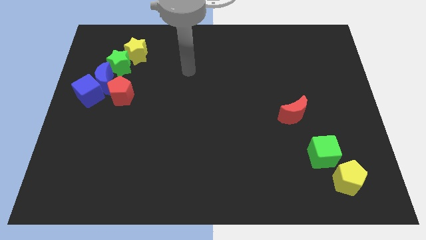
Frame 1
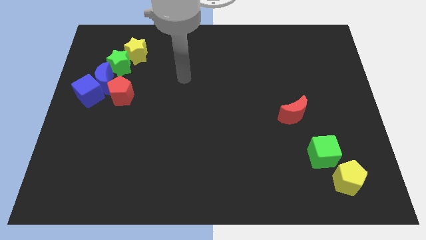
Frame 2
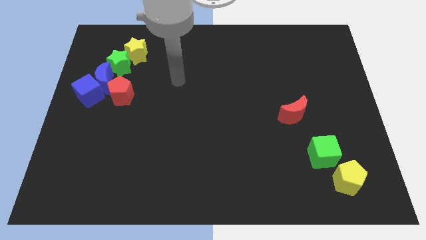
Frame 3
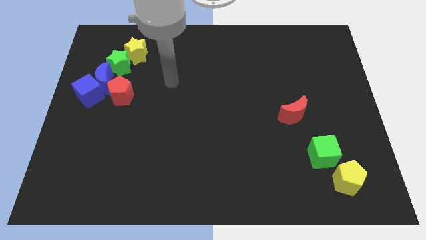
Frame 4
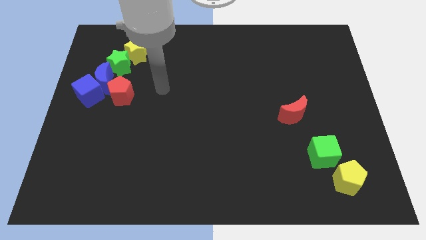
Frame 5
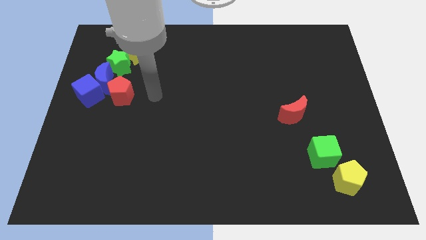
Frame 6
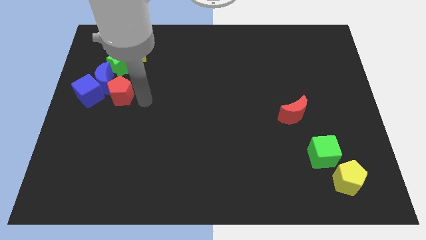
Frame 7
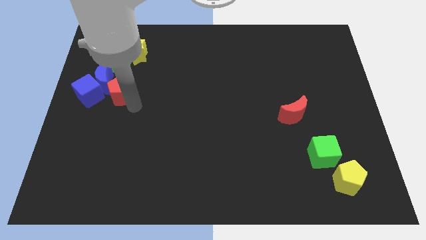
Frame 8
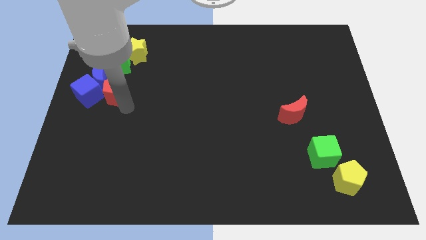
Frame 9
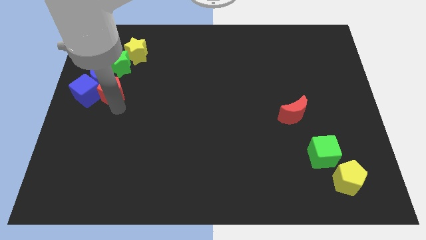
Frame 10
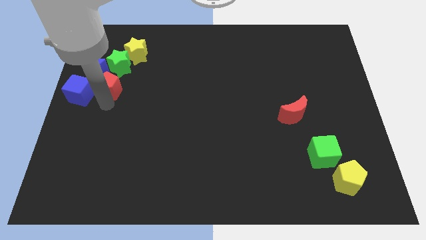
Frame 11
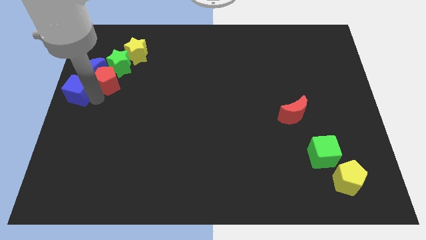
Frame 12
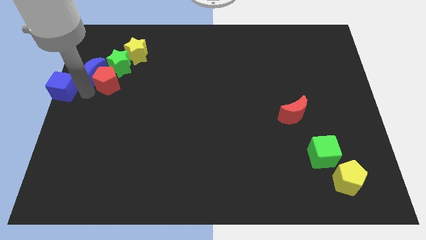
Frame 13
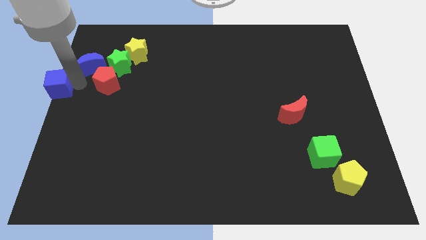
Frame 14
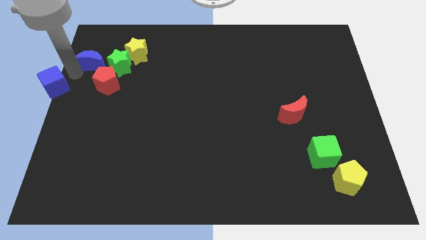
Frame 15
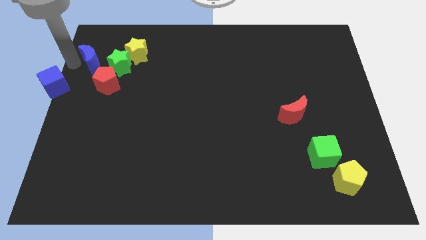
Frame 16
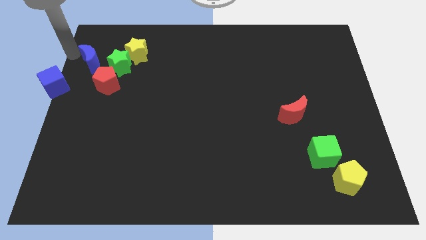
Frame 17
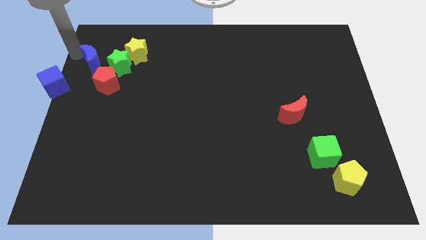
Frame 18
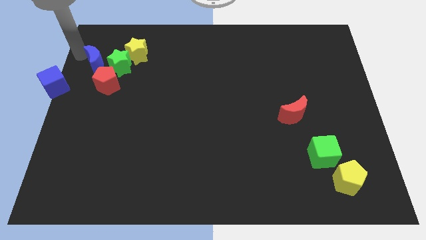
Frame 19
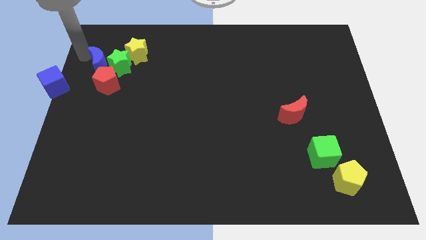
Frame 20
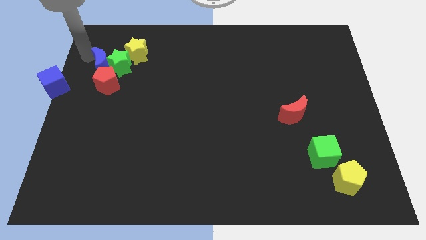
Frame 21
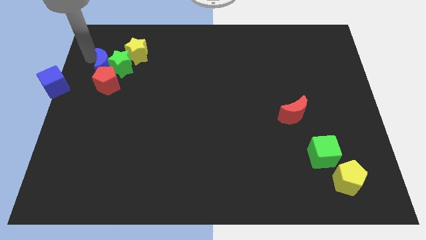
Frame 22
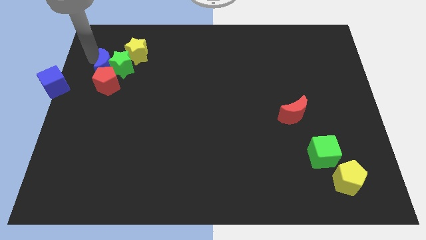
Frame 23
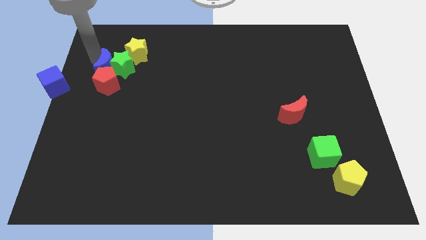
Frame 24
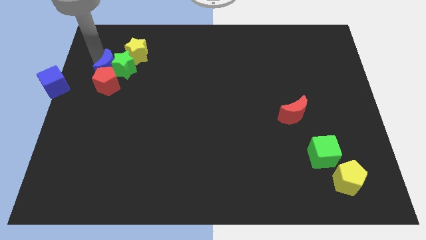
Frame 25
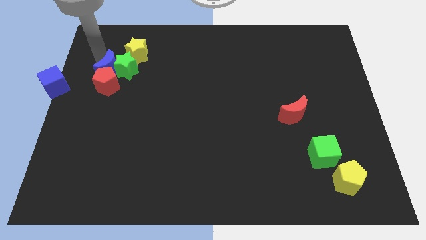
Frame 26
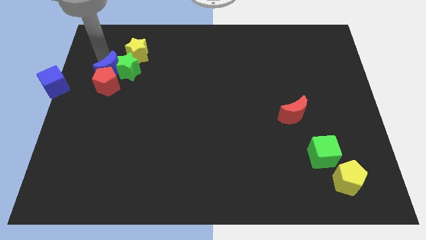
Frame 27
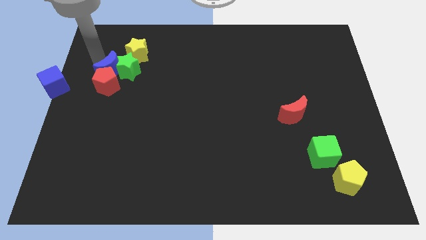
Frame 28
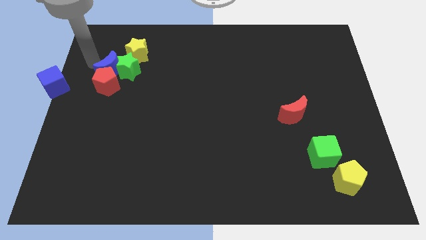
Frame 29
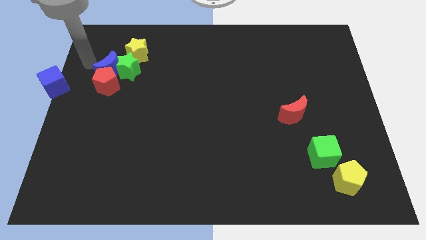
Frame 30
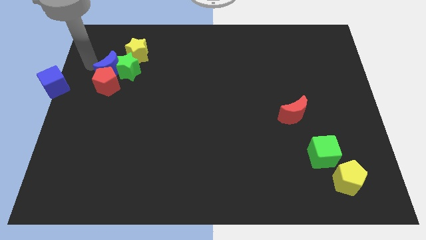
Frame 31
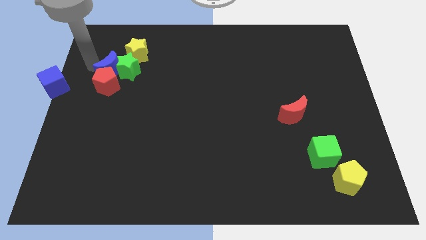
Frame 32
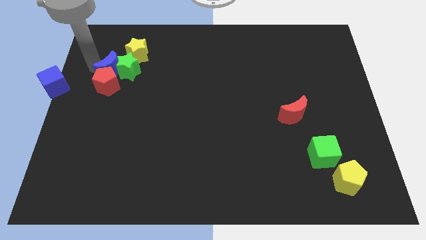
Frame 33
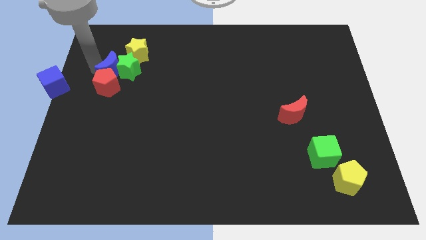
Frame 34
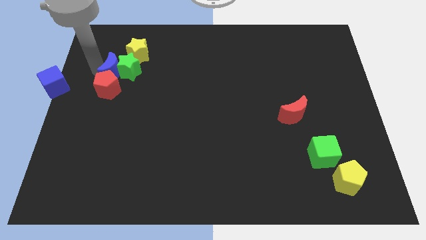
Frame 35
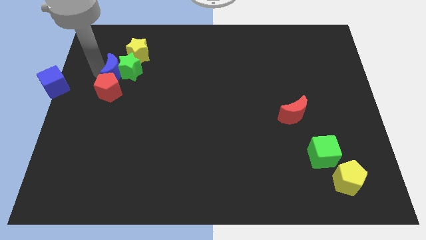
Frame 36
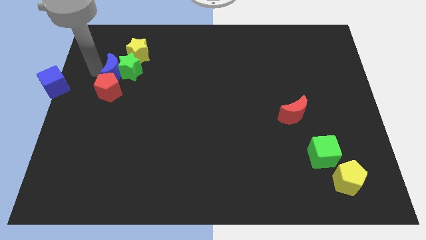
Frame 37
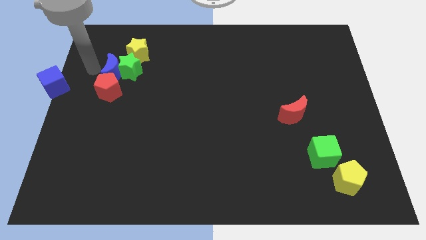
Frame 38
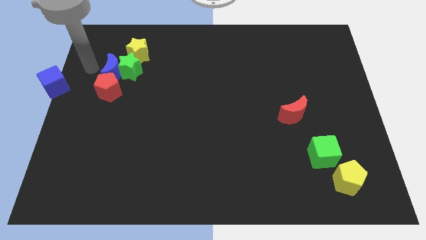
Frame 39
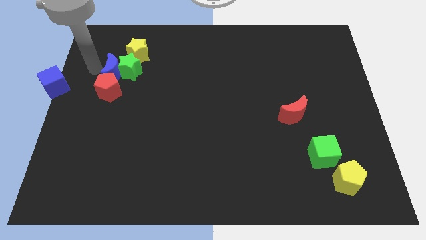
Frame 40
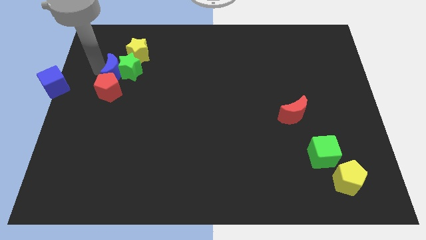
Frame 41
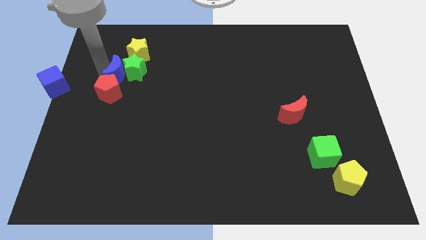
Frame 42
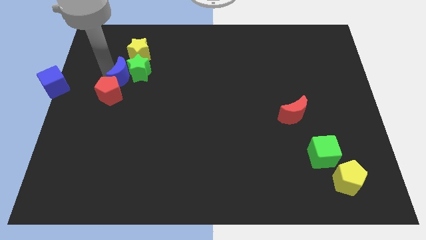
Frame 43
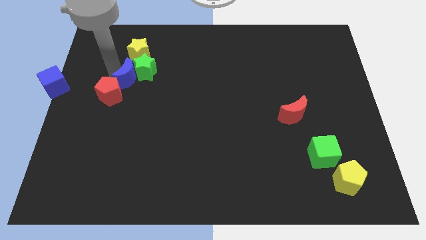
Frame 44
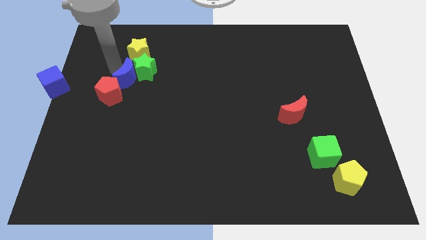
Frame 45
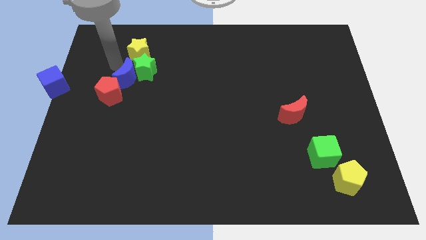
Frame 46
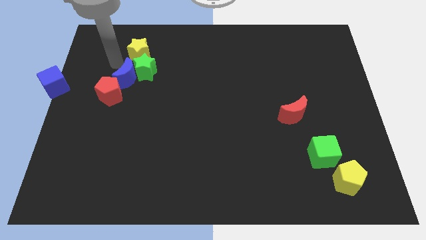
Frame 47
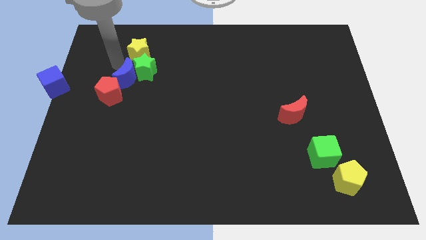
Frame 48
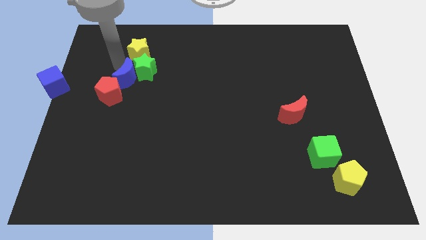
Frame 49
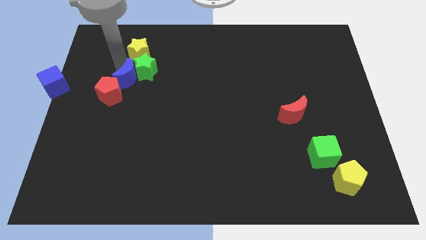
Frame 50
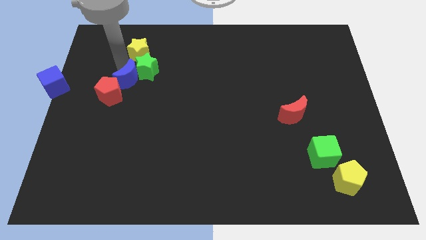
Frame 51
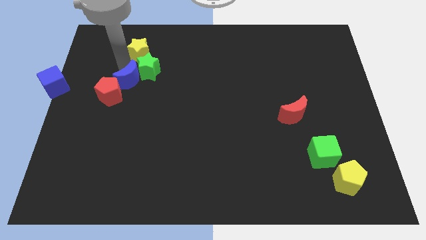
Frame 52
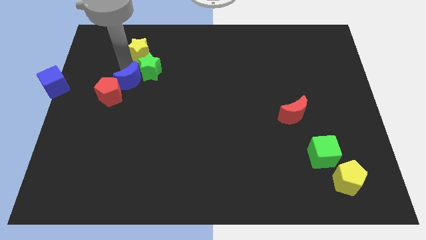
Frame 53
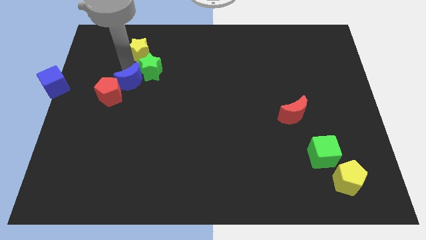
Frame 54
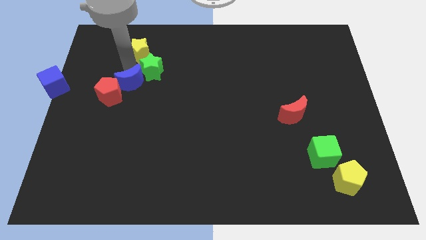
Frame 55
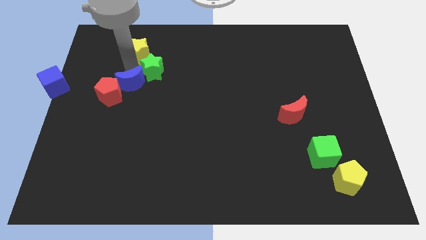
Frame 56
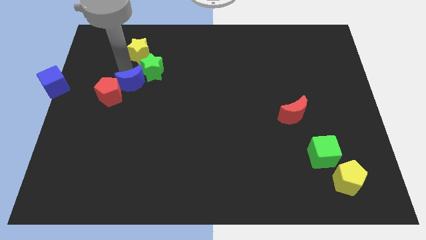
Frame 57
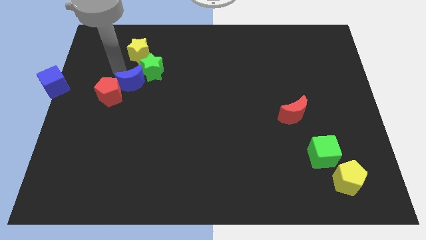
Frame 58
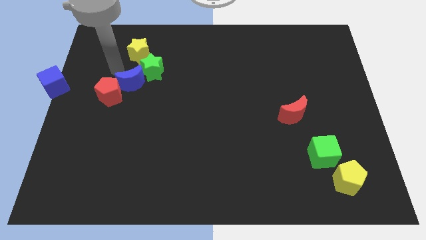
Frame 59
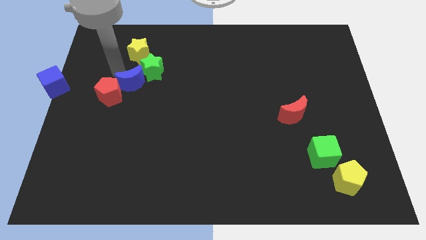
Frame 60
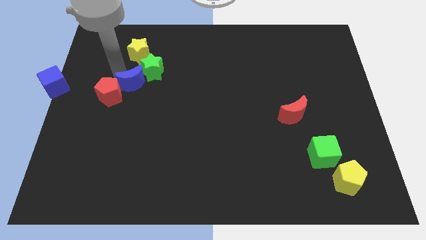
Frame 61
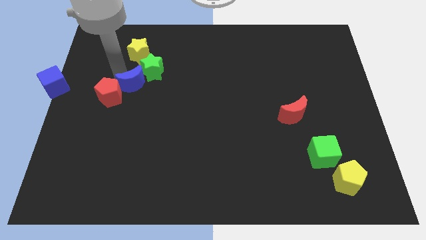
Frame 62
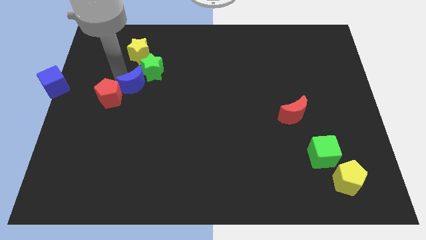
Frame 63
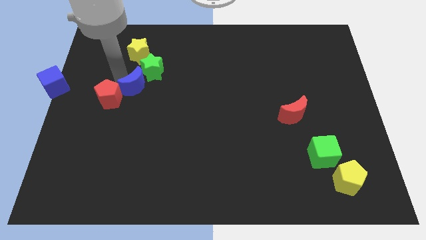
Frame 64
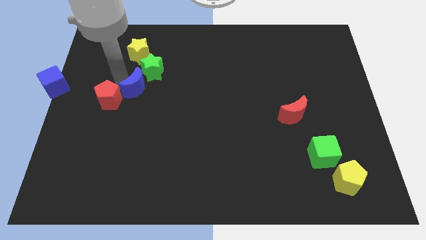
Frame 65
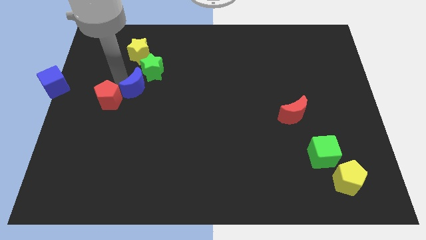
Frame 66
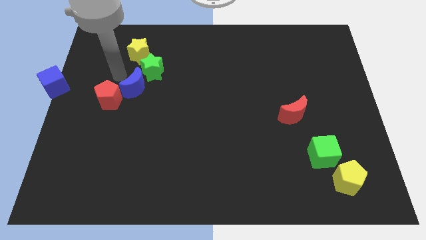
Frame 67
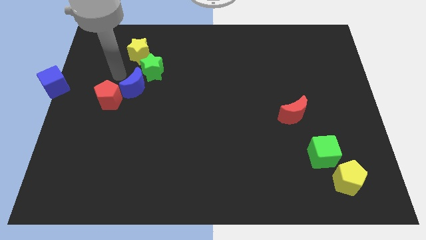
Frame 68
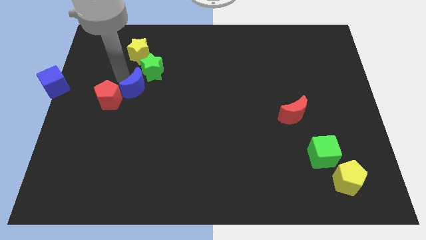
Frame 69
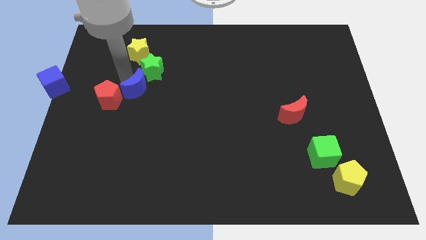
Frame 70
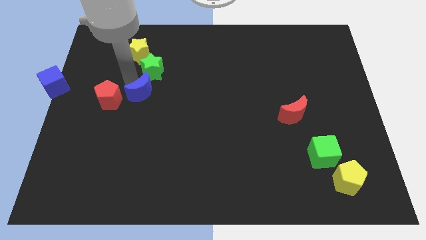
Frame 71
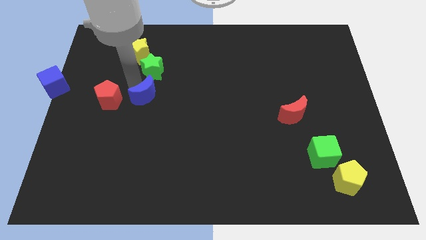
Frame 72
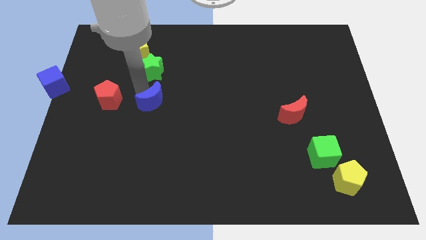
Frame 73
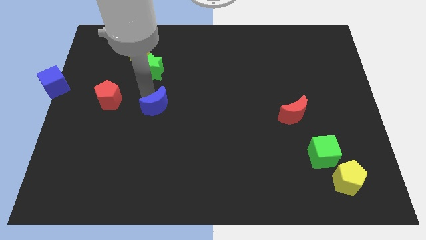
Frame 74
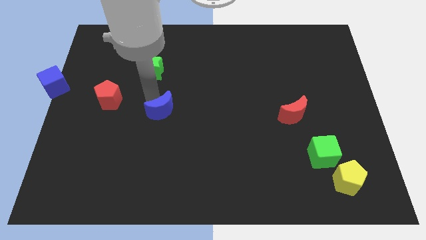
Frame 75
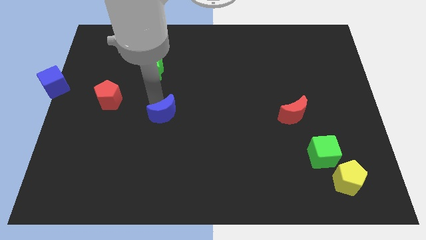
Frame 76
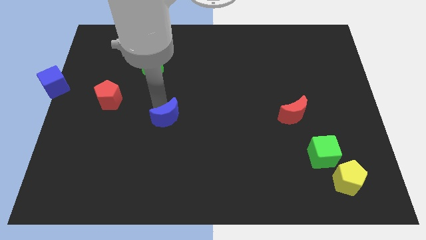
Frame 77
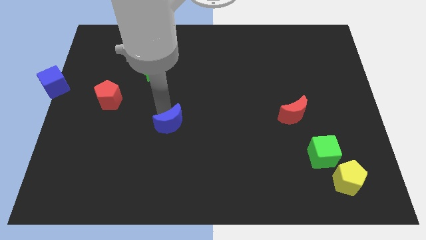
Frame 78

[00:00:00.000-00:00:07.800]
slide the blue moon downwards and to the right diagonally
